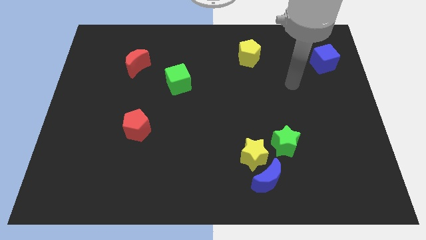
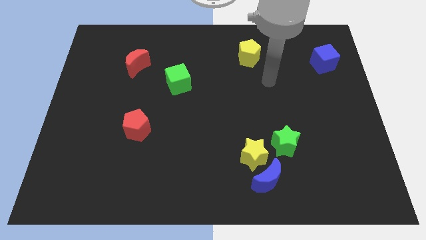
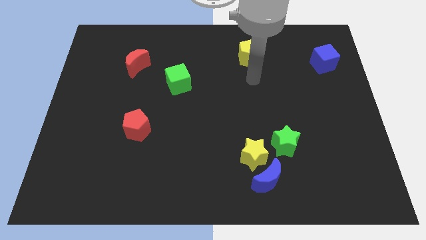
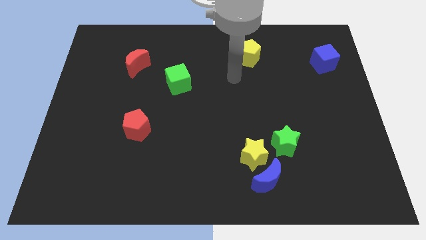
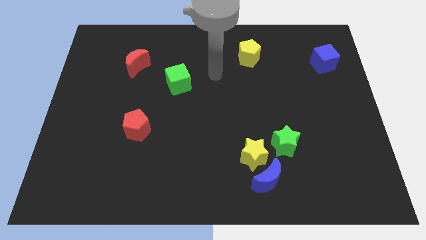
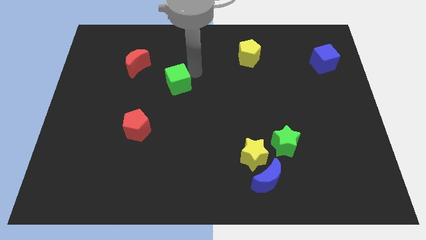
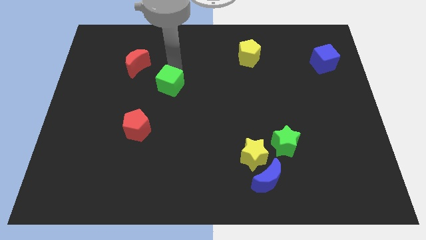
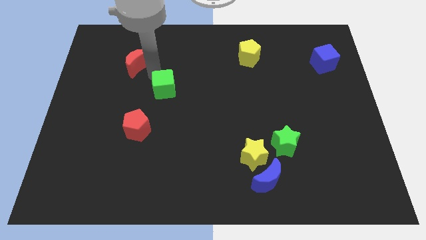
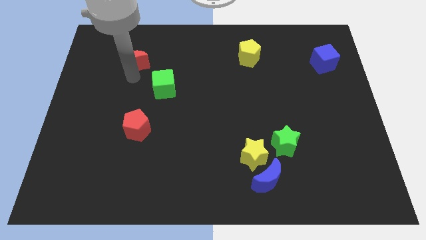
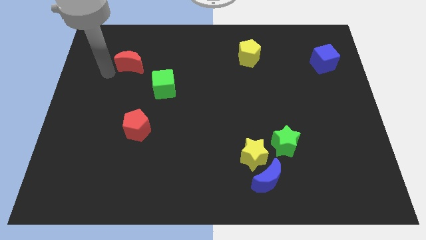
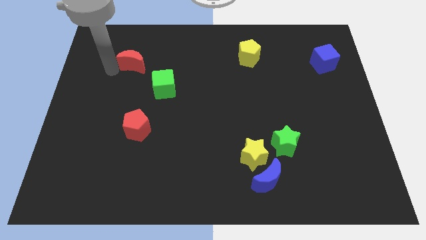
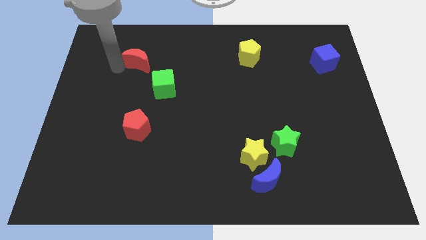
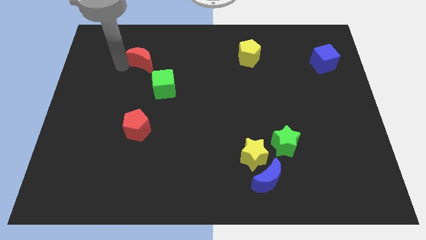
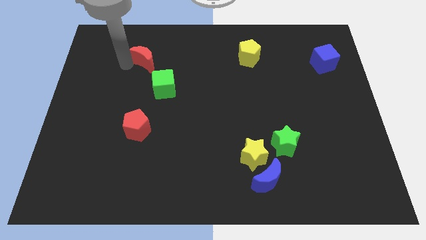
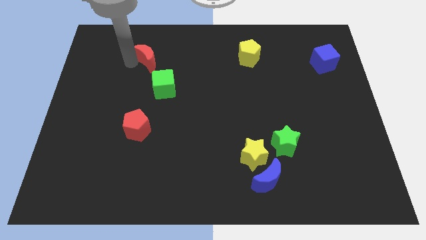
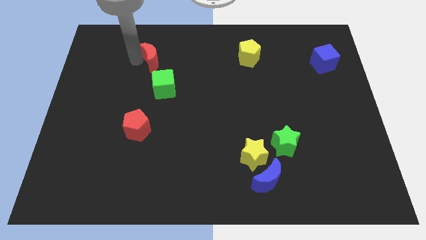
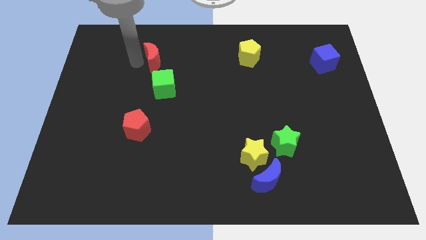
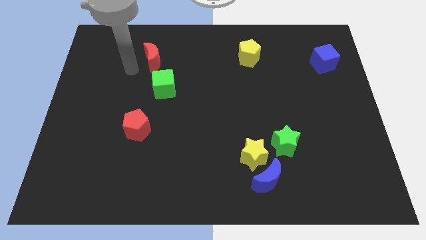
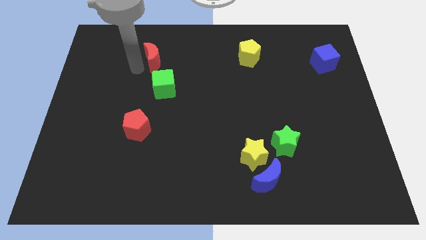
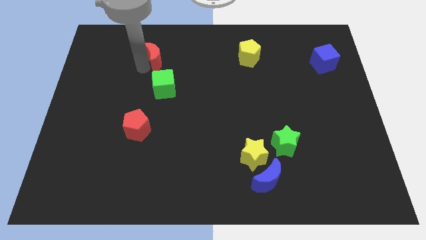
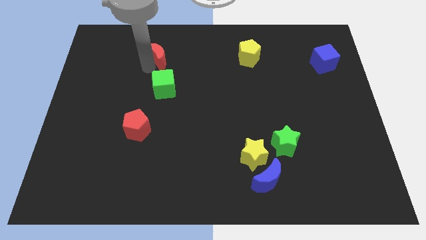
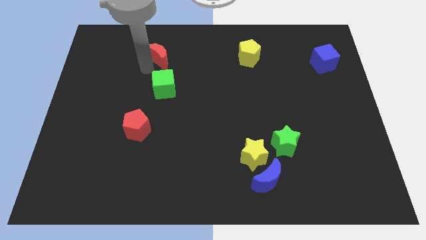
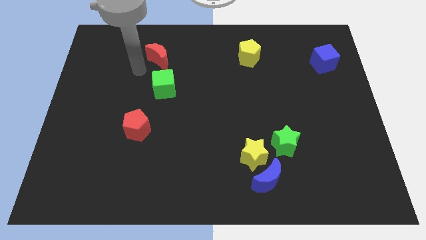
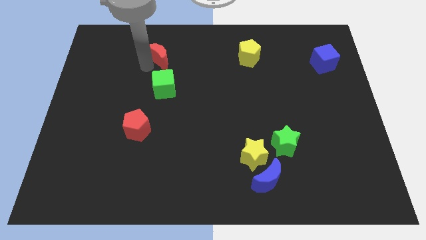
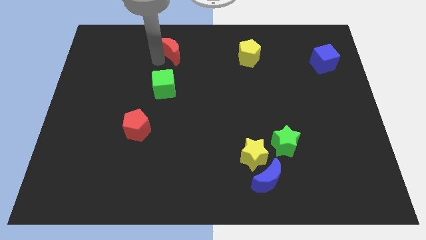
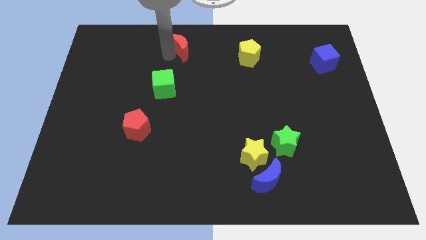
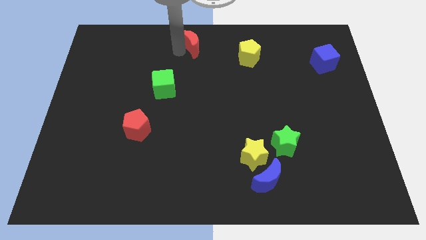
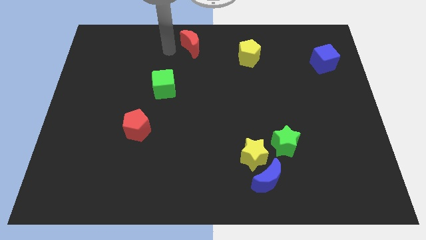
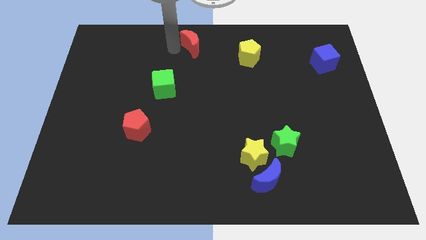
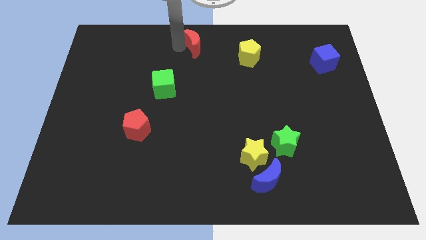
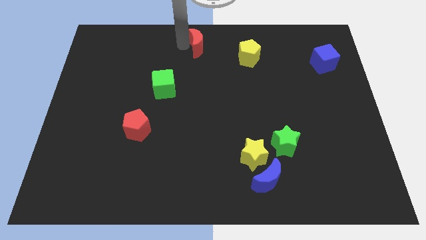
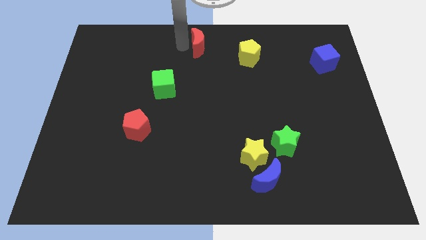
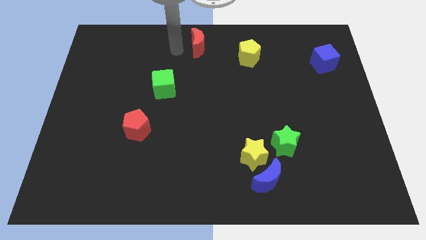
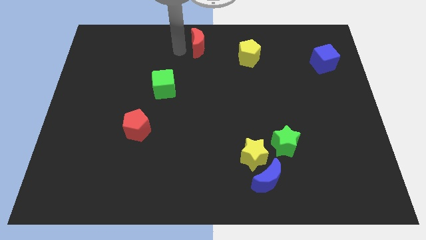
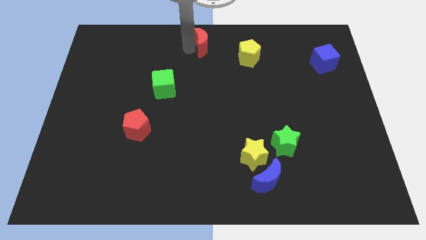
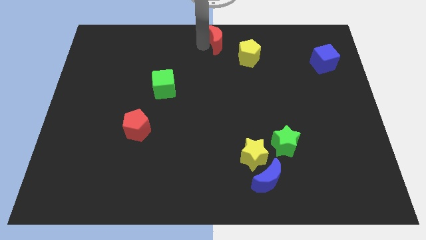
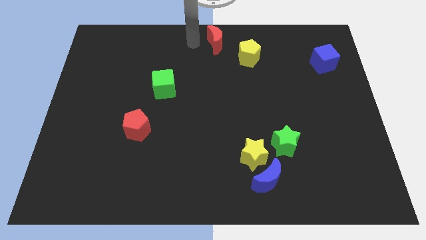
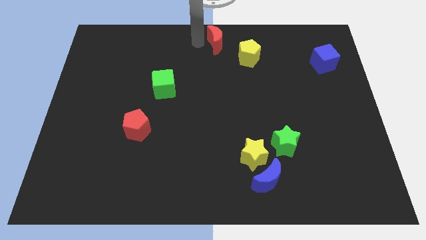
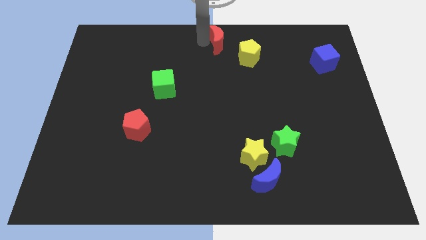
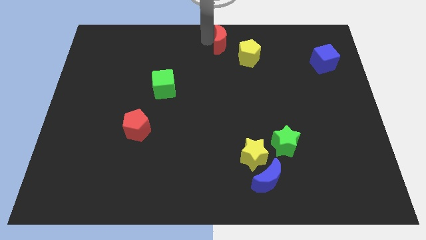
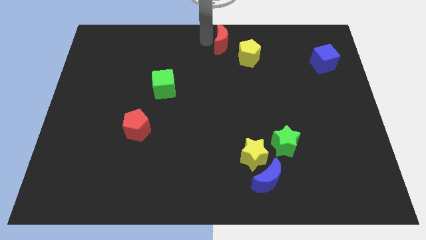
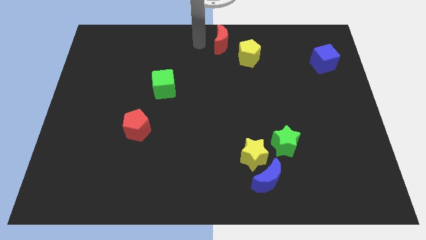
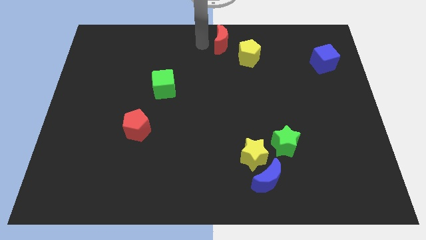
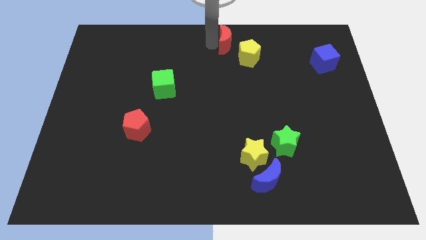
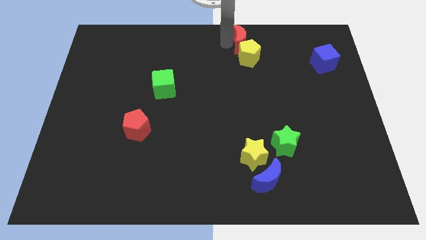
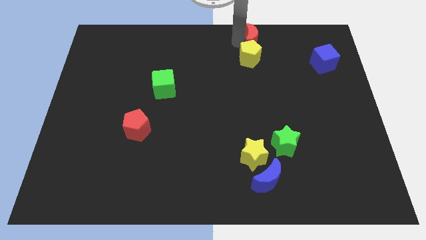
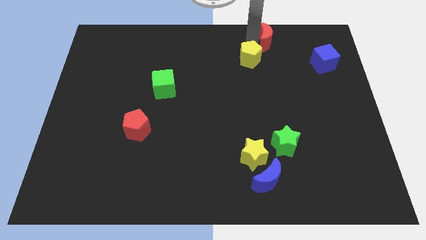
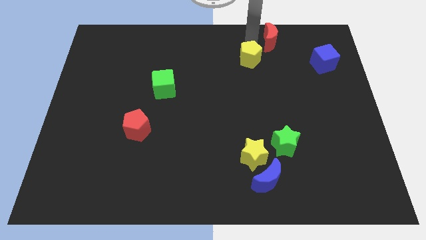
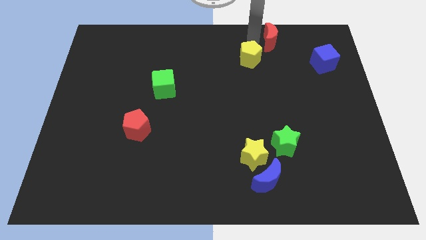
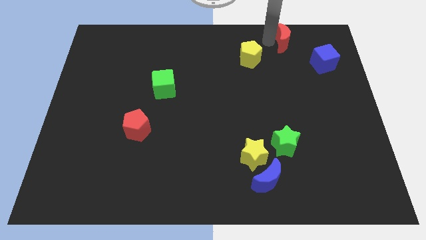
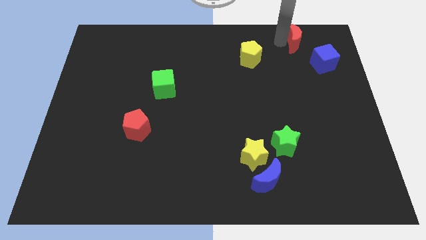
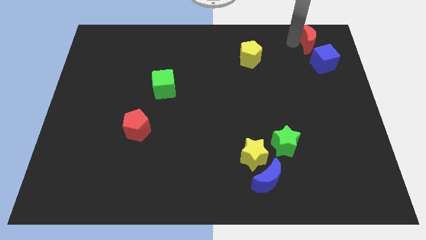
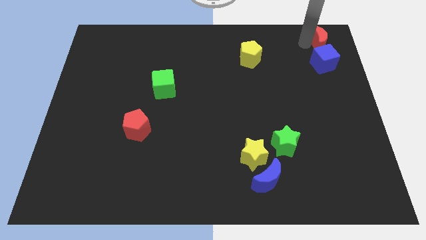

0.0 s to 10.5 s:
move the red moon to the top right of the board

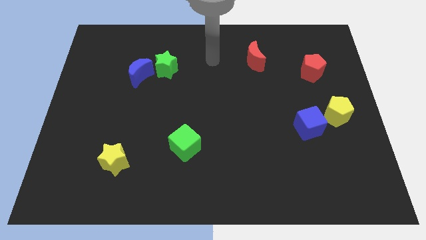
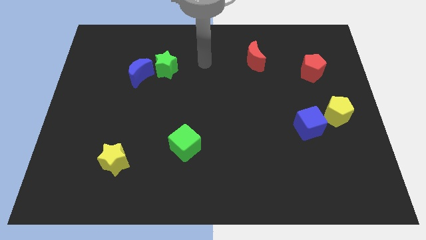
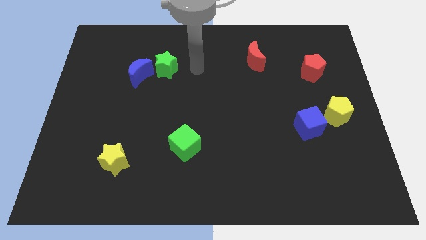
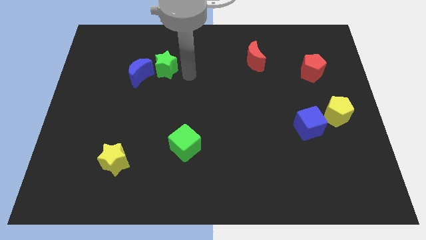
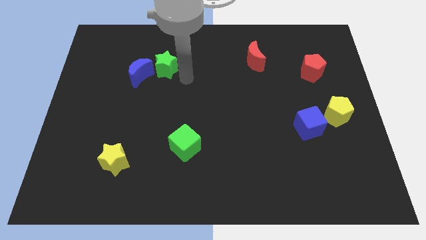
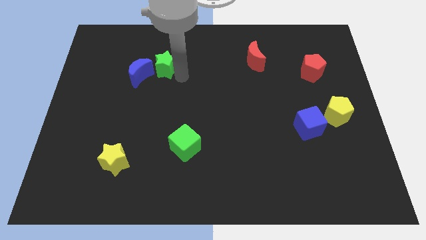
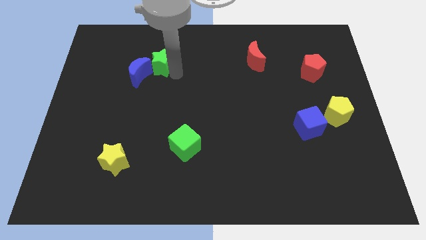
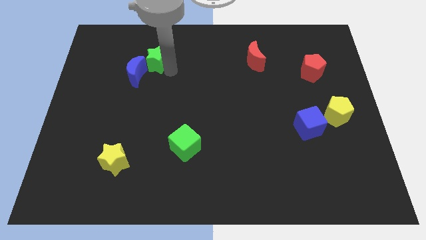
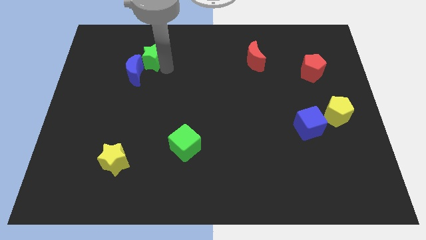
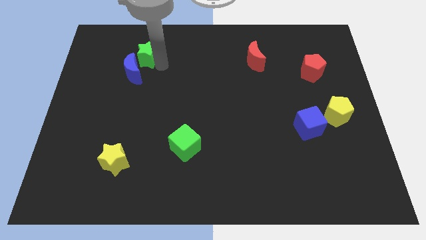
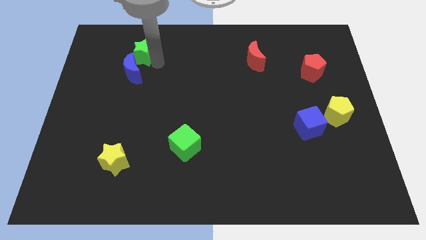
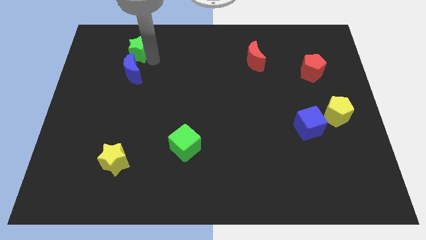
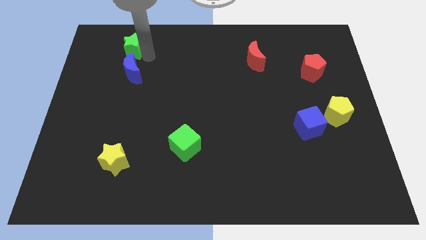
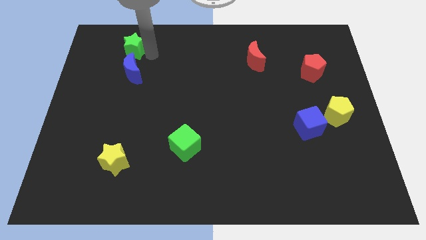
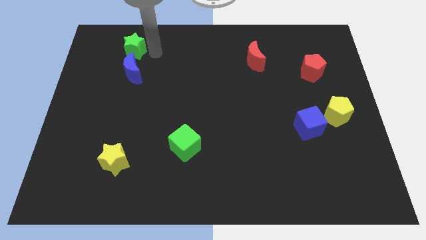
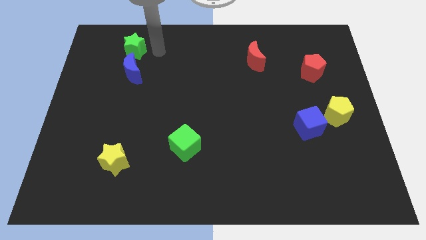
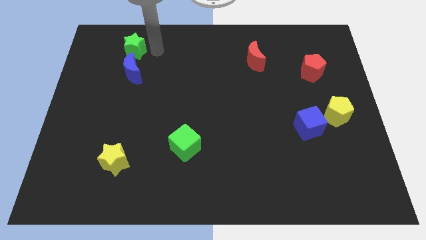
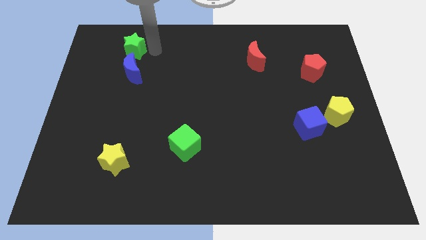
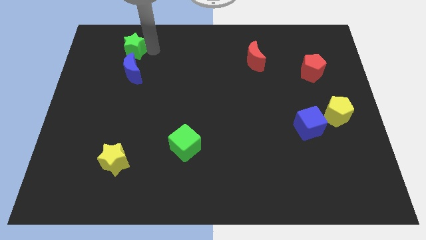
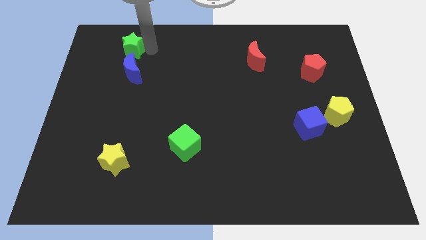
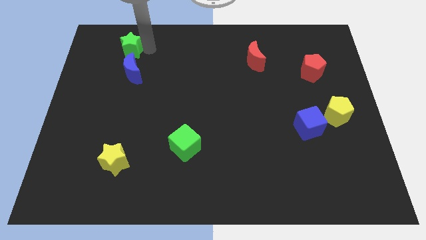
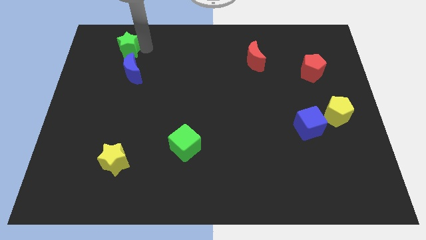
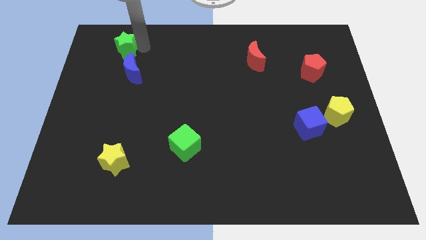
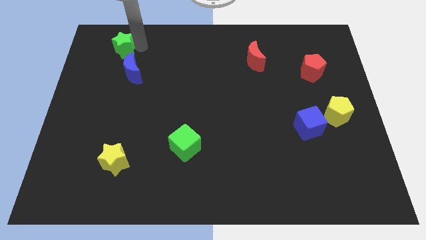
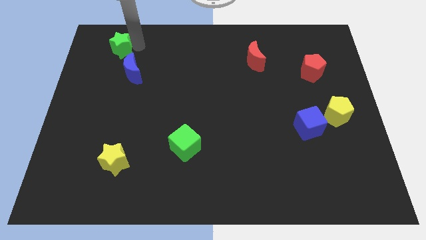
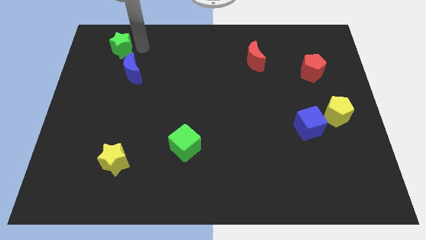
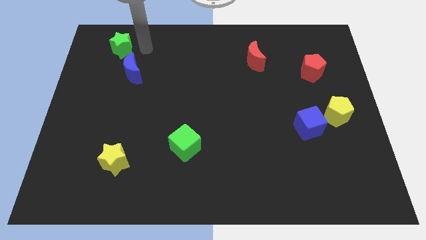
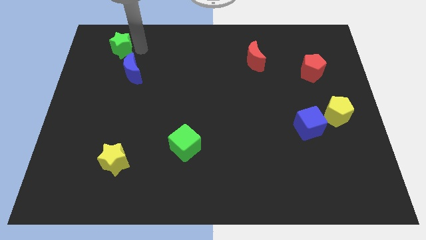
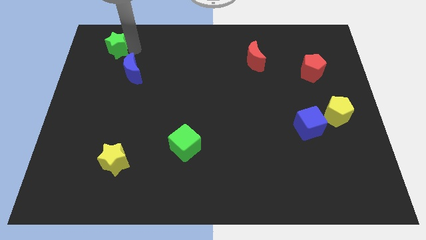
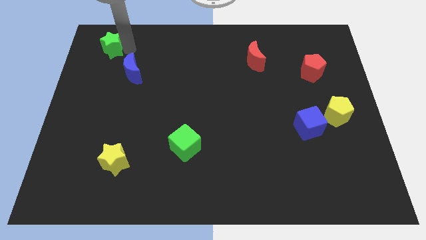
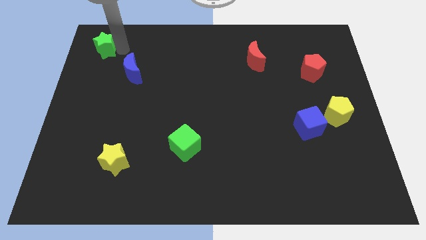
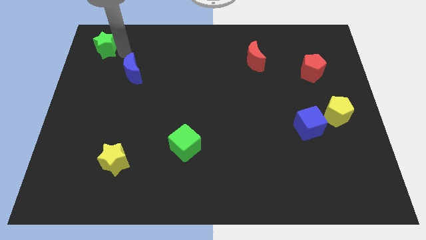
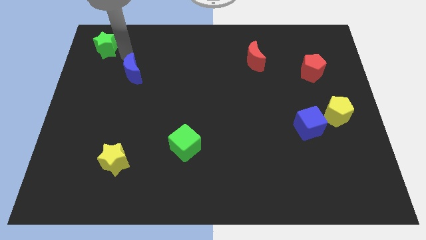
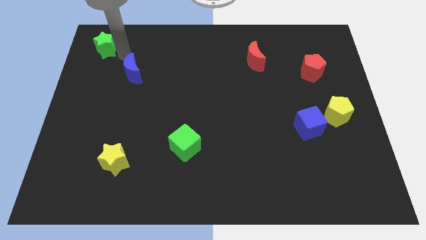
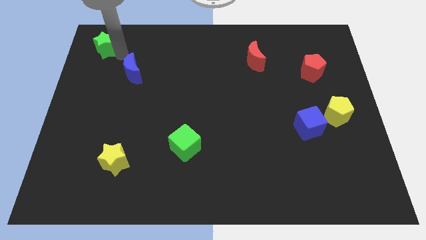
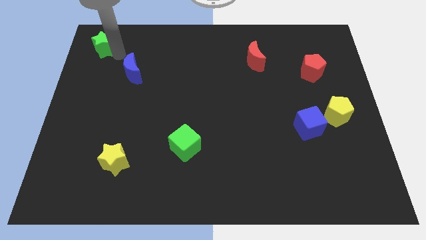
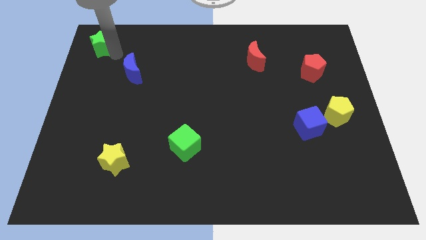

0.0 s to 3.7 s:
put the green star to the top left
